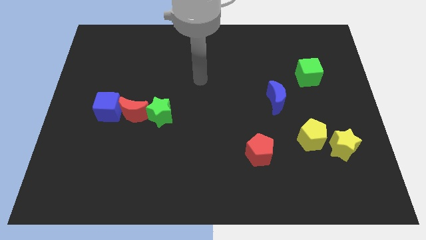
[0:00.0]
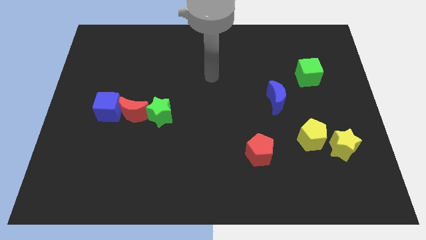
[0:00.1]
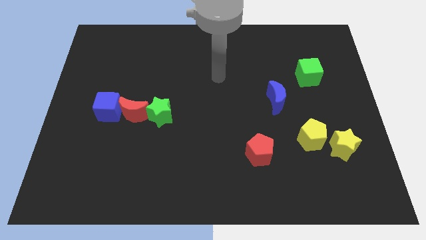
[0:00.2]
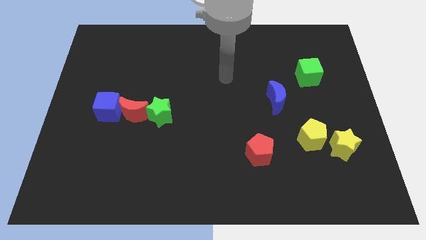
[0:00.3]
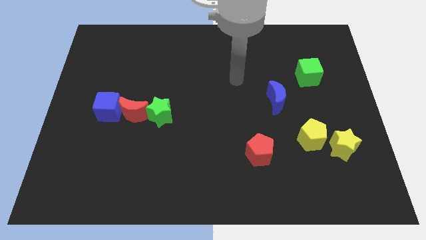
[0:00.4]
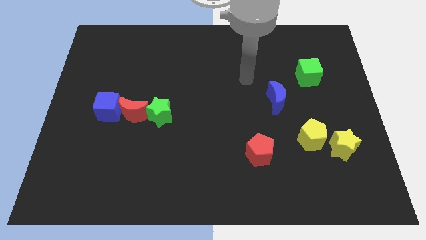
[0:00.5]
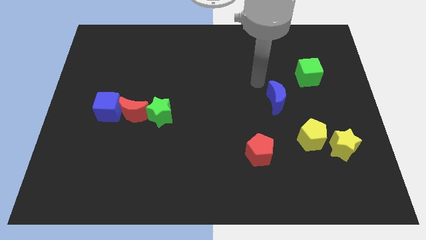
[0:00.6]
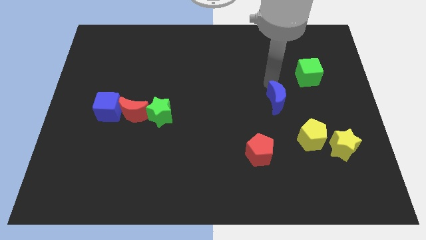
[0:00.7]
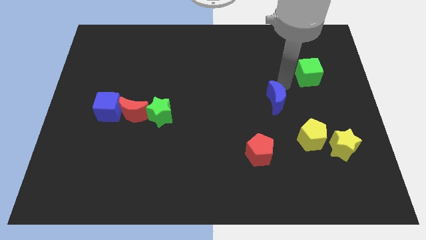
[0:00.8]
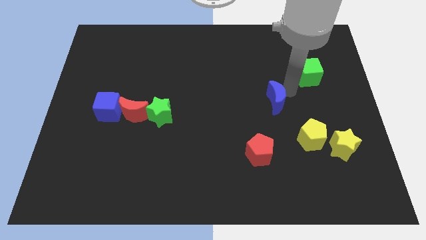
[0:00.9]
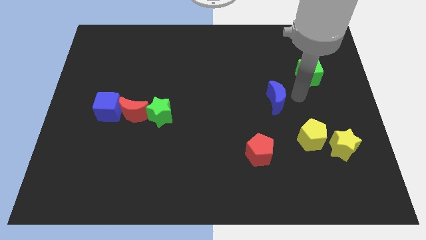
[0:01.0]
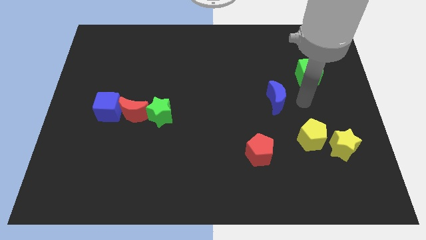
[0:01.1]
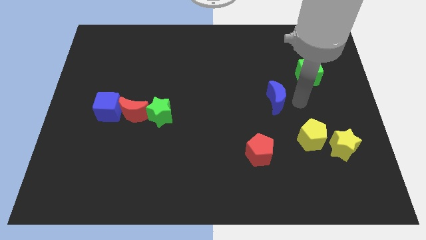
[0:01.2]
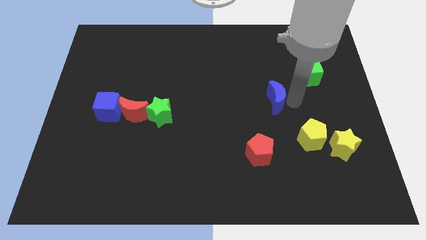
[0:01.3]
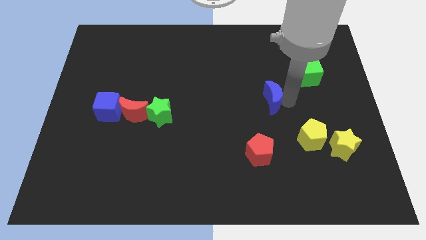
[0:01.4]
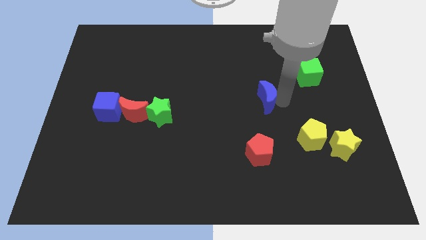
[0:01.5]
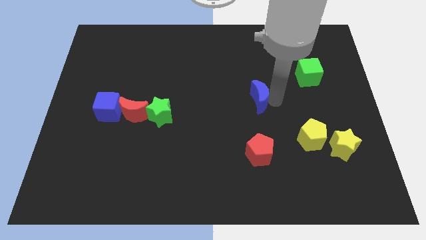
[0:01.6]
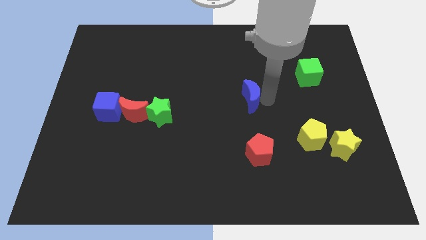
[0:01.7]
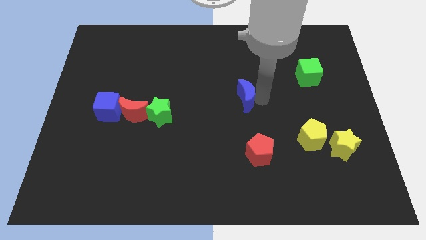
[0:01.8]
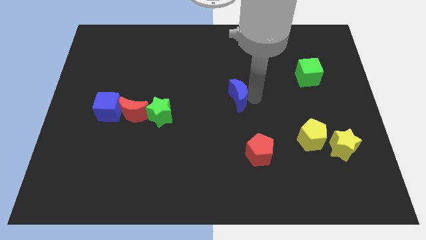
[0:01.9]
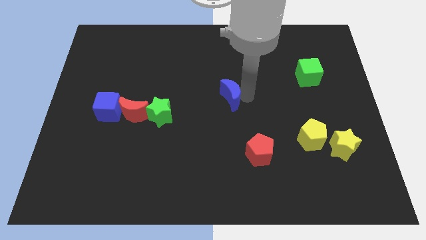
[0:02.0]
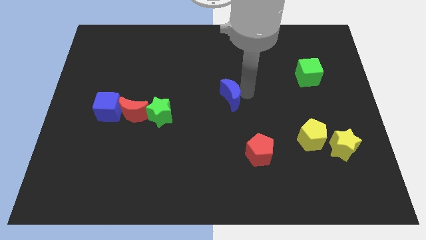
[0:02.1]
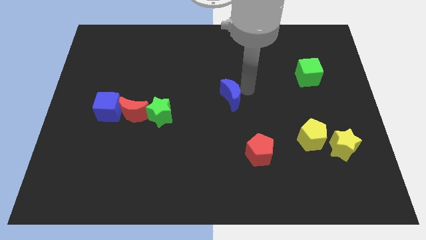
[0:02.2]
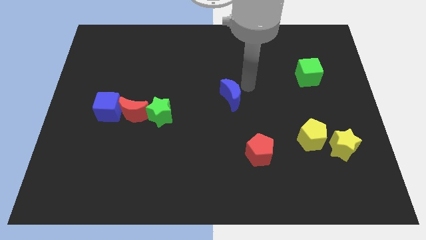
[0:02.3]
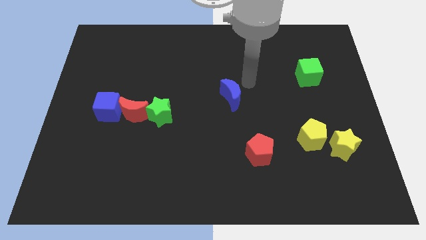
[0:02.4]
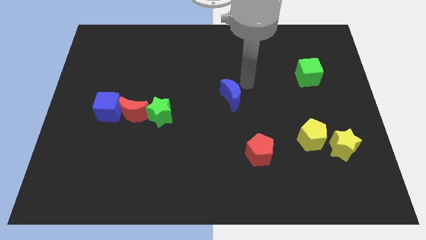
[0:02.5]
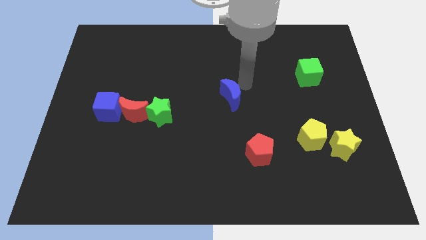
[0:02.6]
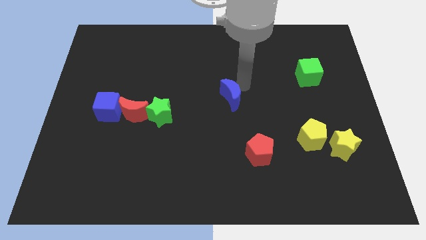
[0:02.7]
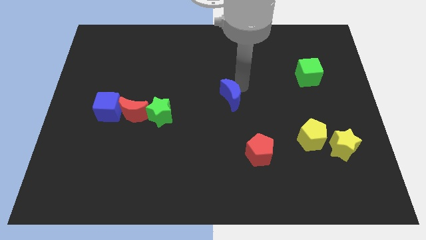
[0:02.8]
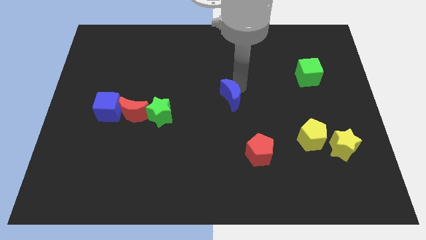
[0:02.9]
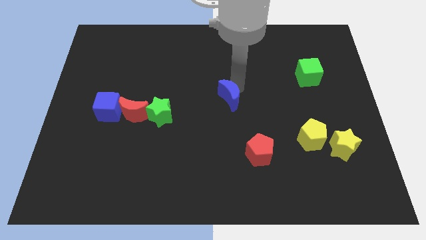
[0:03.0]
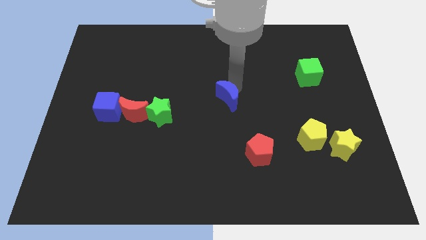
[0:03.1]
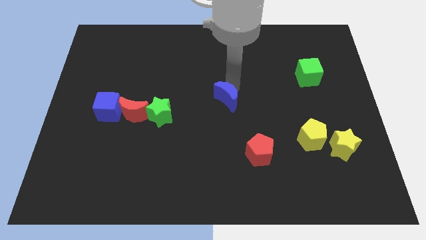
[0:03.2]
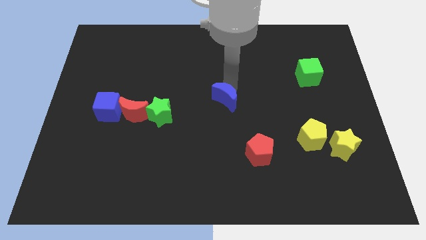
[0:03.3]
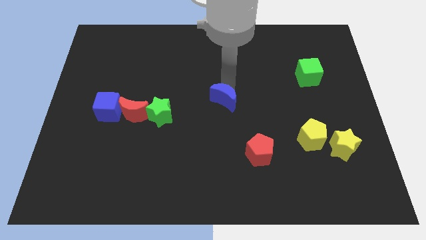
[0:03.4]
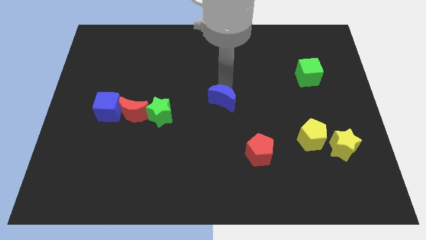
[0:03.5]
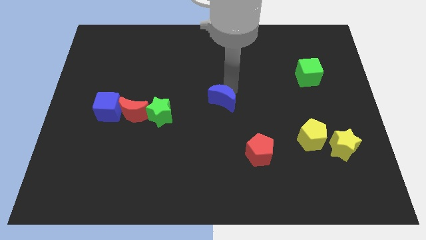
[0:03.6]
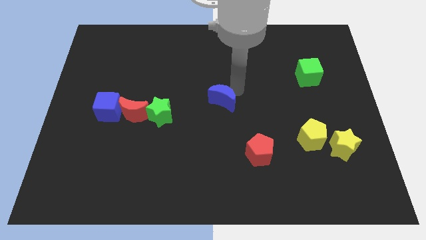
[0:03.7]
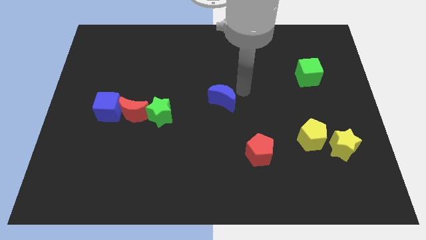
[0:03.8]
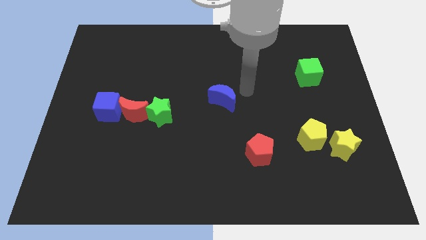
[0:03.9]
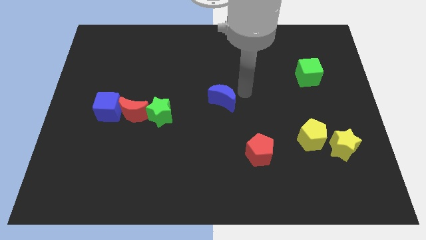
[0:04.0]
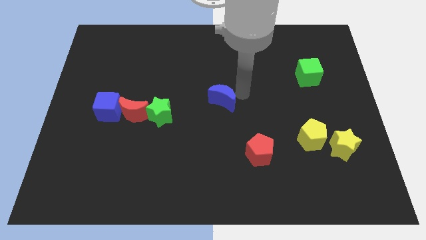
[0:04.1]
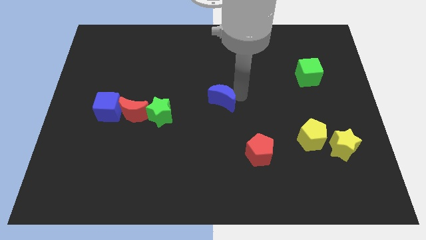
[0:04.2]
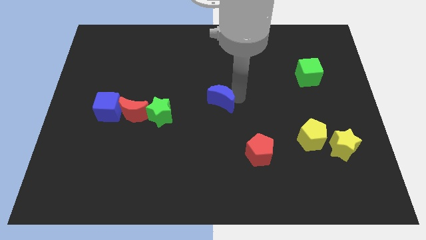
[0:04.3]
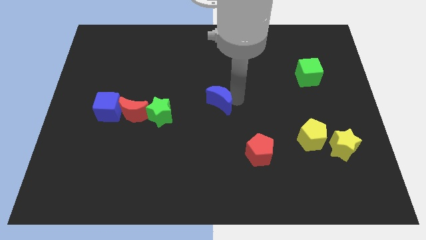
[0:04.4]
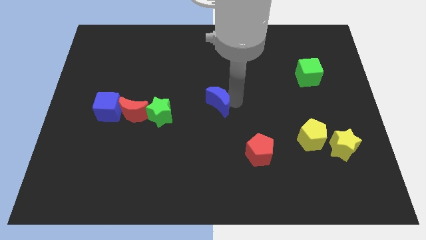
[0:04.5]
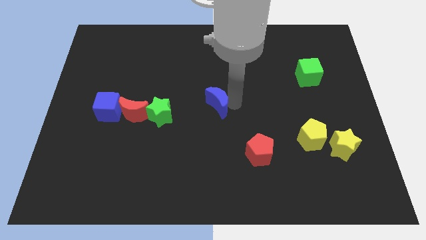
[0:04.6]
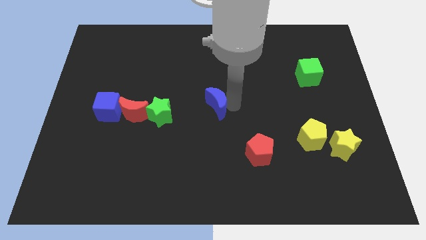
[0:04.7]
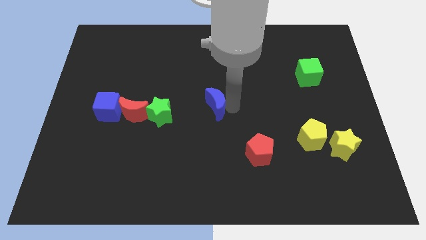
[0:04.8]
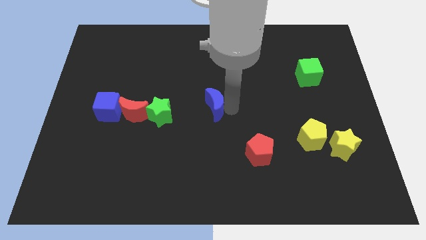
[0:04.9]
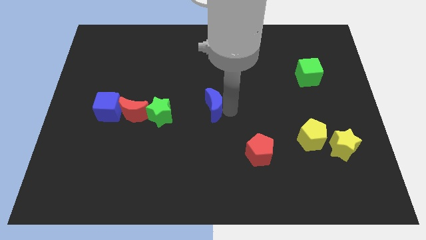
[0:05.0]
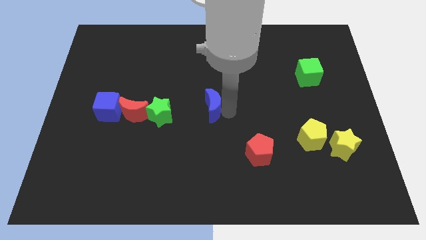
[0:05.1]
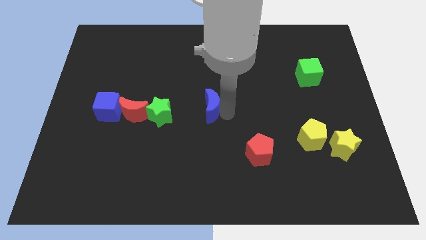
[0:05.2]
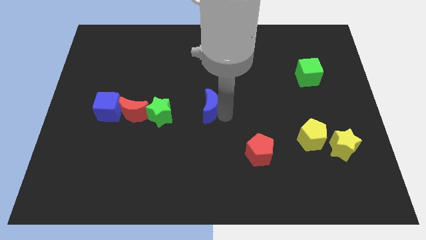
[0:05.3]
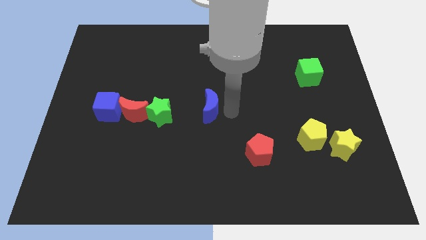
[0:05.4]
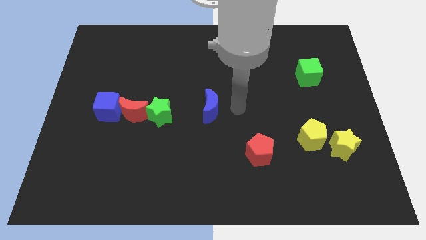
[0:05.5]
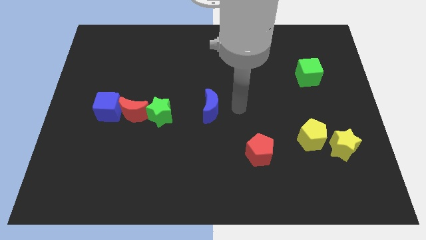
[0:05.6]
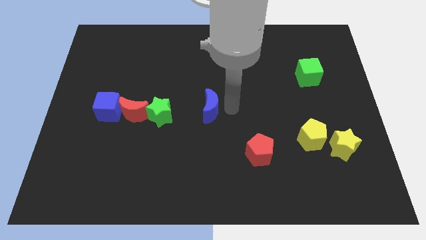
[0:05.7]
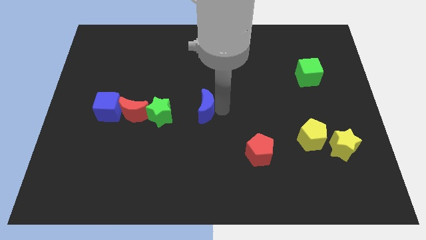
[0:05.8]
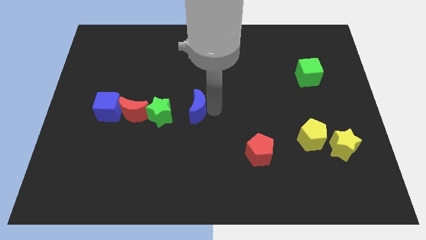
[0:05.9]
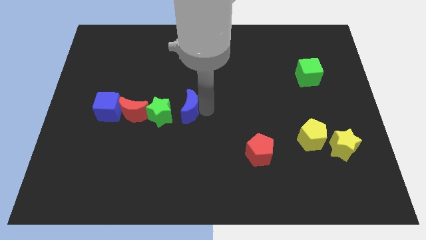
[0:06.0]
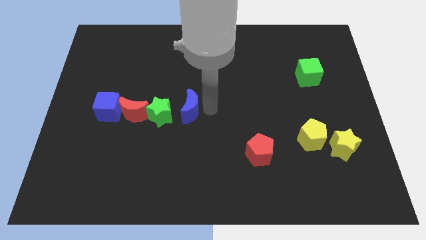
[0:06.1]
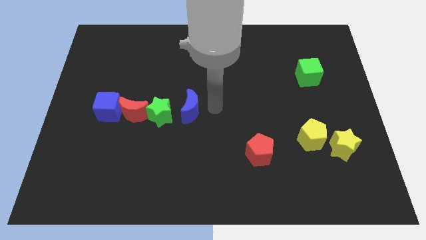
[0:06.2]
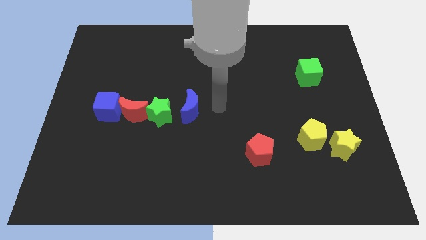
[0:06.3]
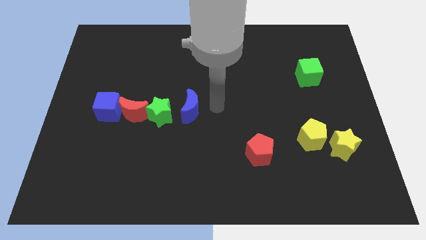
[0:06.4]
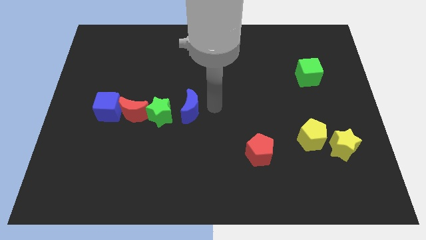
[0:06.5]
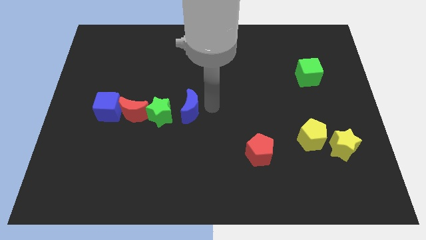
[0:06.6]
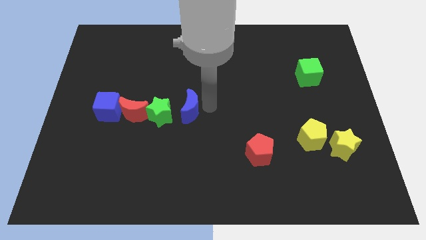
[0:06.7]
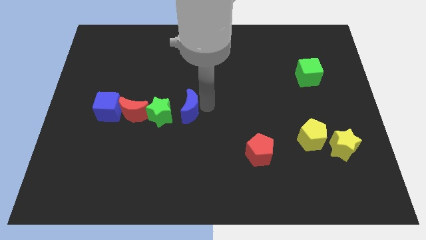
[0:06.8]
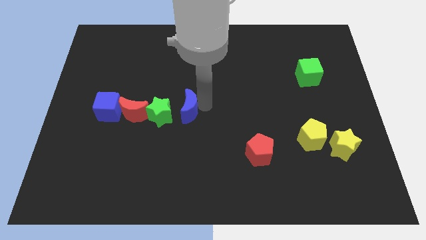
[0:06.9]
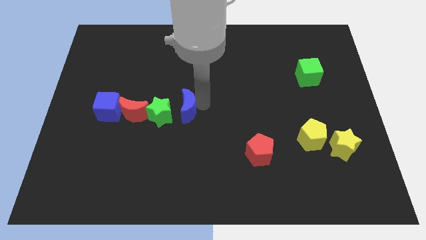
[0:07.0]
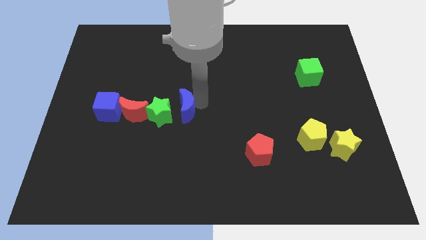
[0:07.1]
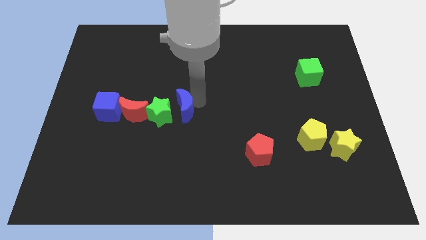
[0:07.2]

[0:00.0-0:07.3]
put the blue moon towards the green star

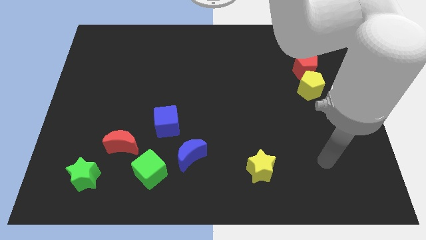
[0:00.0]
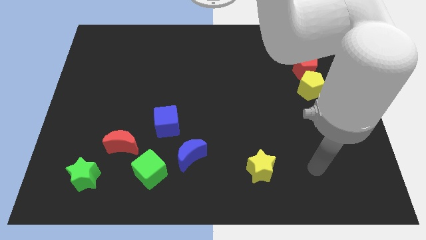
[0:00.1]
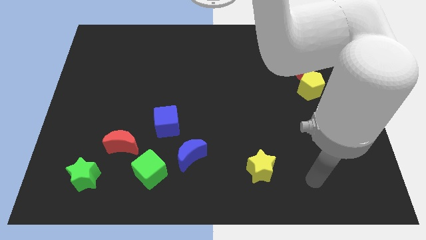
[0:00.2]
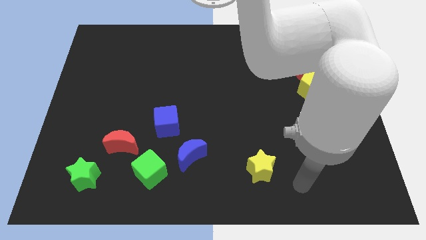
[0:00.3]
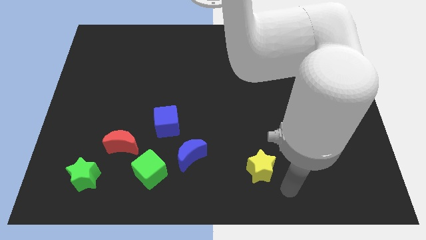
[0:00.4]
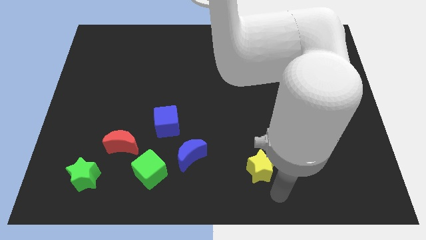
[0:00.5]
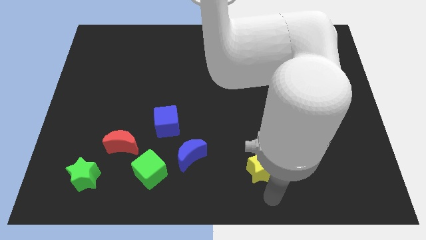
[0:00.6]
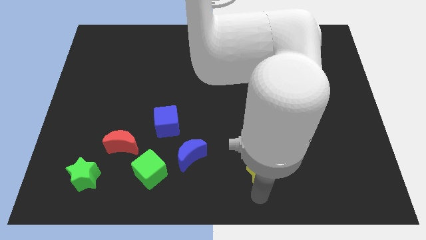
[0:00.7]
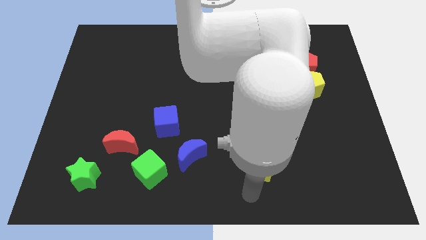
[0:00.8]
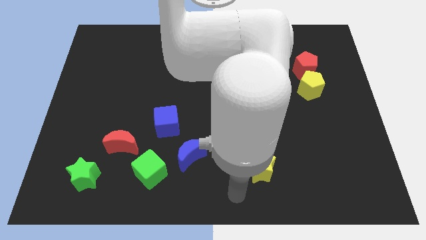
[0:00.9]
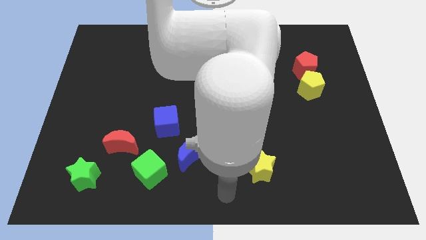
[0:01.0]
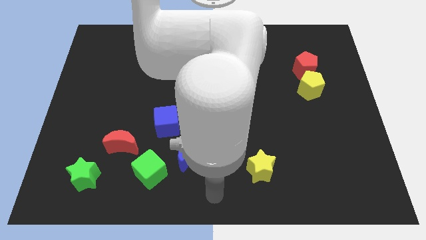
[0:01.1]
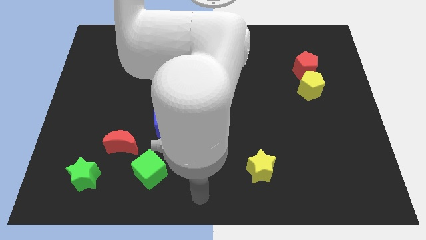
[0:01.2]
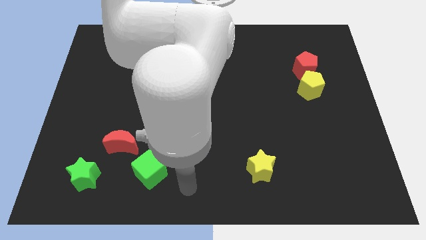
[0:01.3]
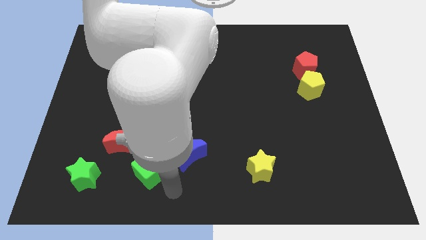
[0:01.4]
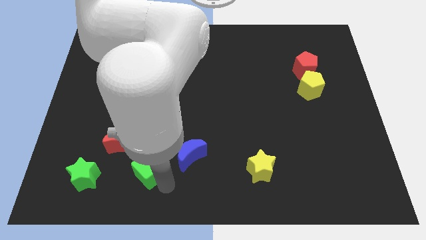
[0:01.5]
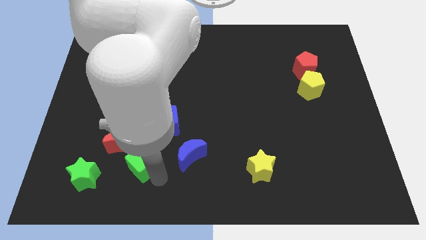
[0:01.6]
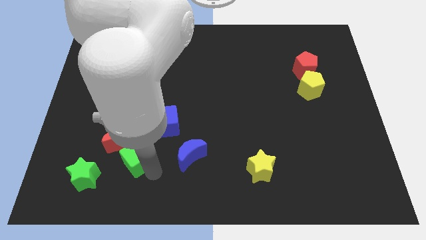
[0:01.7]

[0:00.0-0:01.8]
put the green cube close to the red moon
